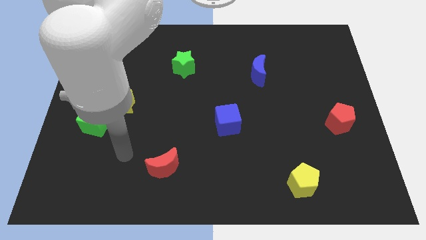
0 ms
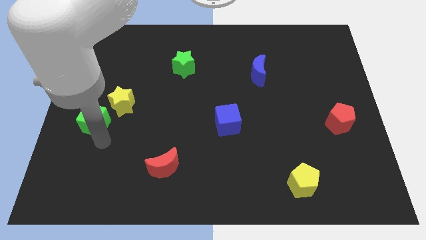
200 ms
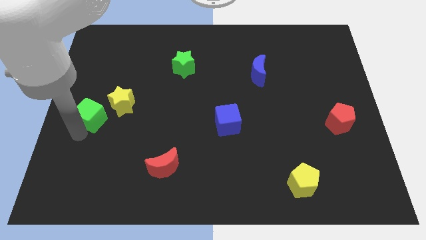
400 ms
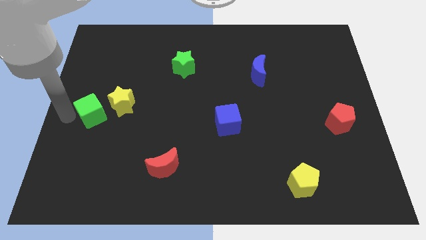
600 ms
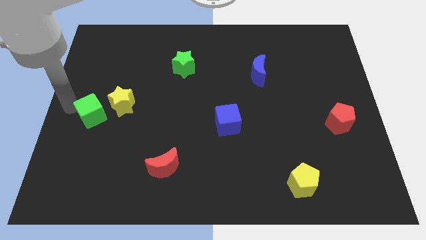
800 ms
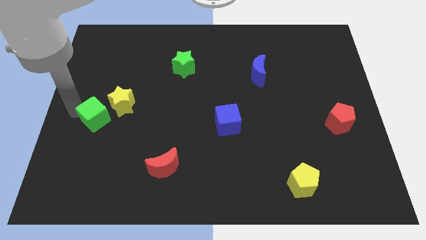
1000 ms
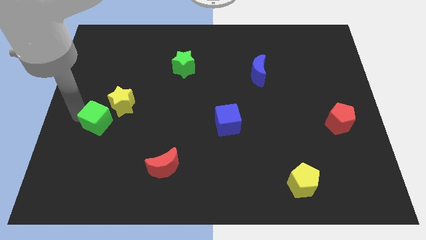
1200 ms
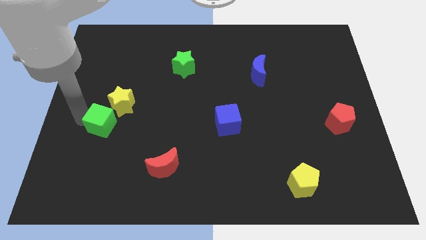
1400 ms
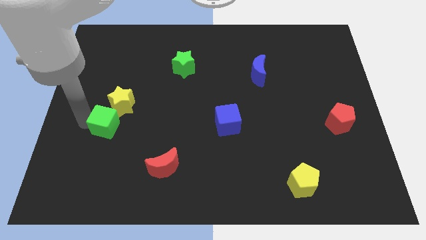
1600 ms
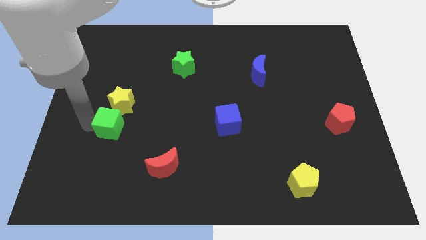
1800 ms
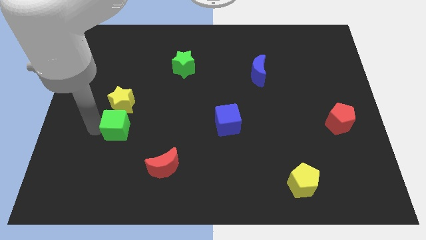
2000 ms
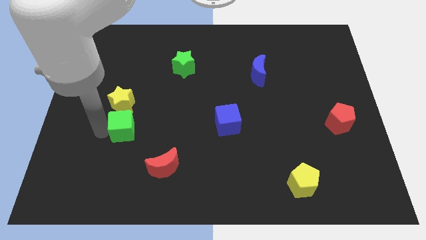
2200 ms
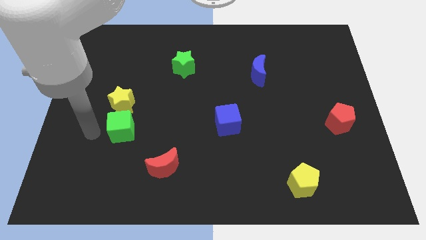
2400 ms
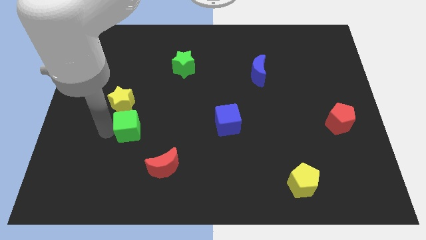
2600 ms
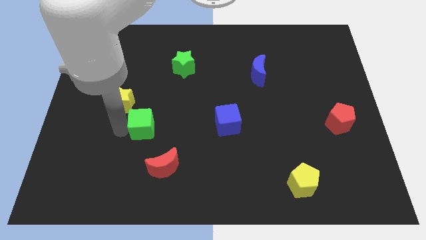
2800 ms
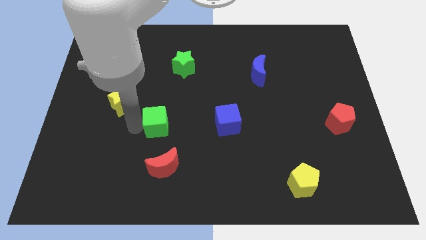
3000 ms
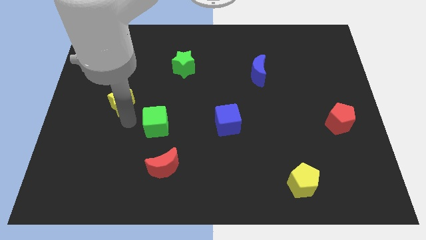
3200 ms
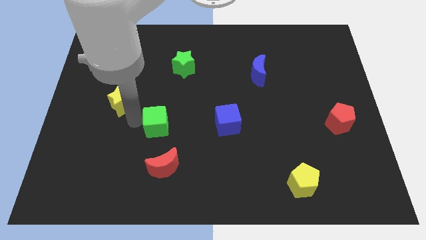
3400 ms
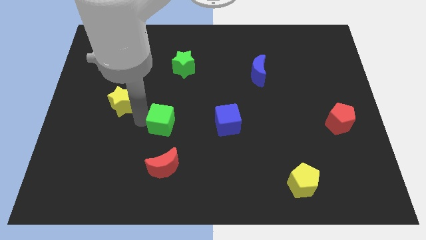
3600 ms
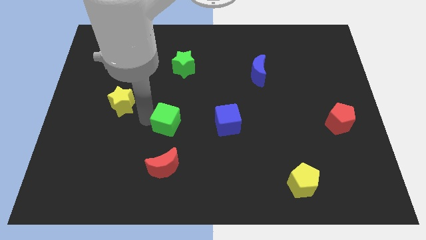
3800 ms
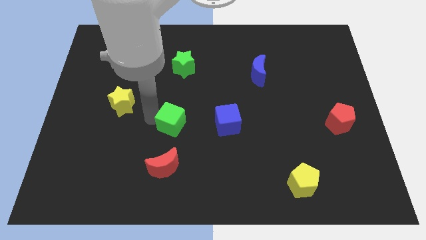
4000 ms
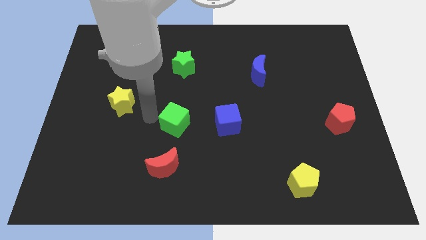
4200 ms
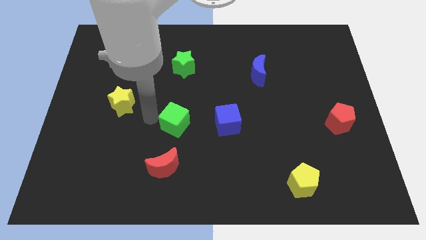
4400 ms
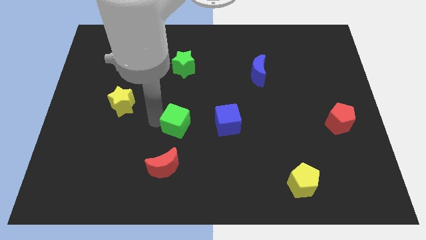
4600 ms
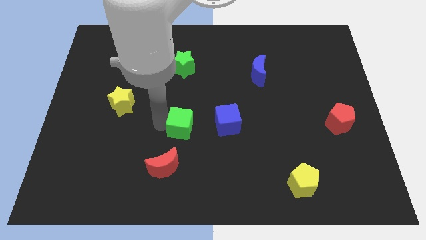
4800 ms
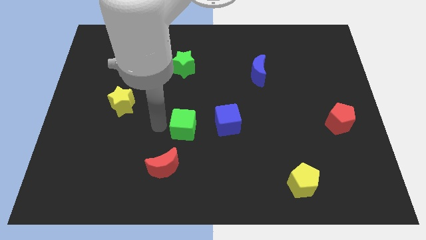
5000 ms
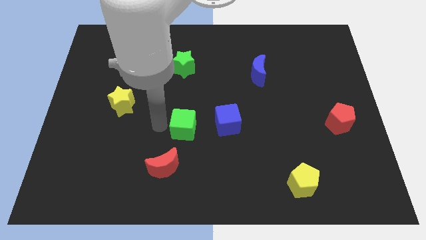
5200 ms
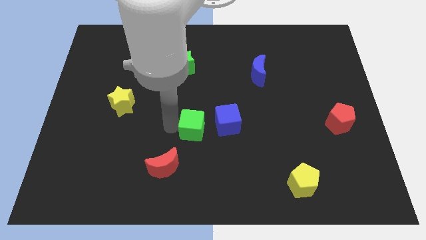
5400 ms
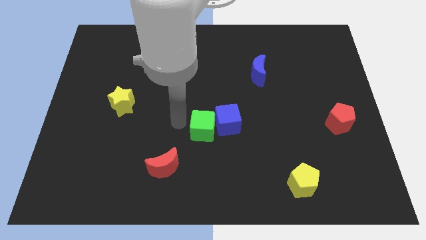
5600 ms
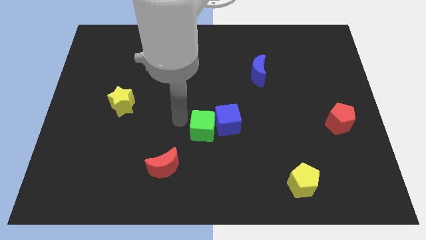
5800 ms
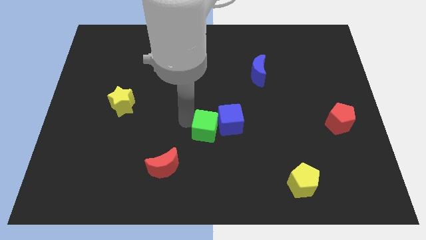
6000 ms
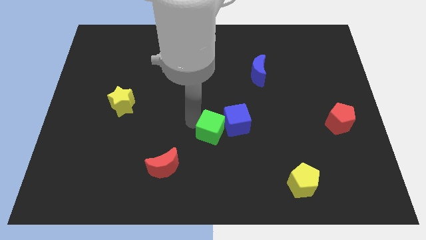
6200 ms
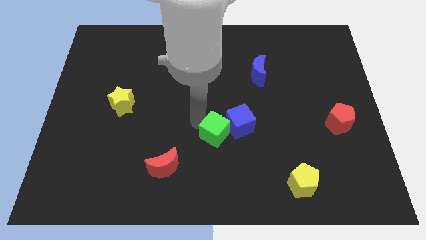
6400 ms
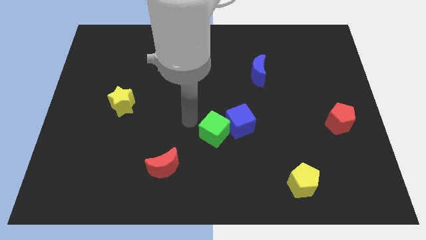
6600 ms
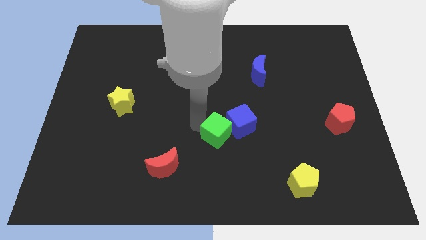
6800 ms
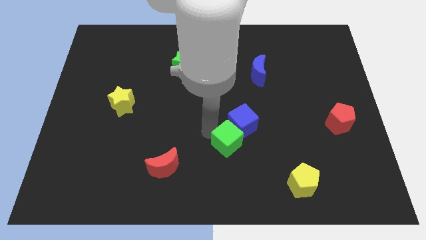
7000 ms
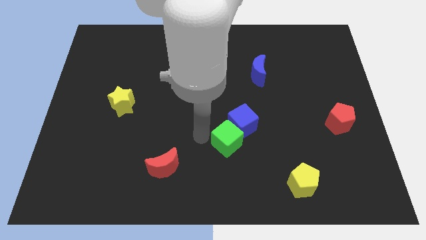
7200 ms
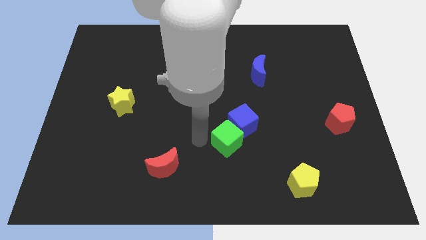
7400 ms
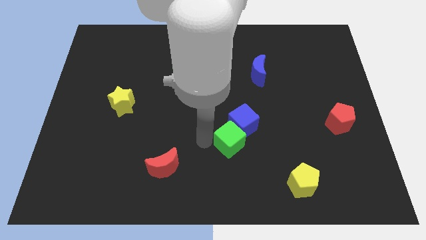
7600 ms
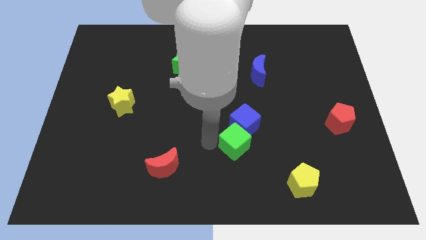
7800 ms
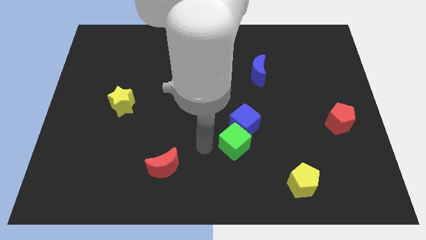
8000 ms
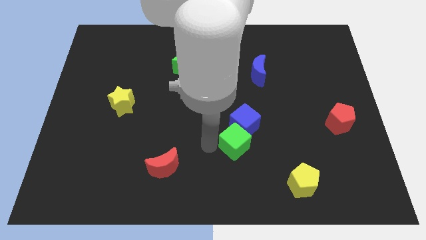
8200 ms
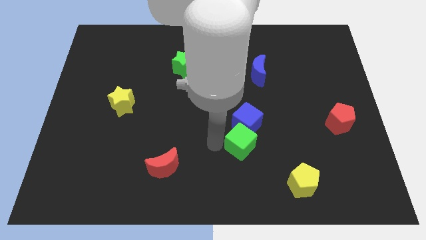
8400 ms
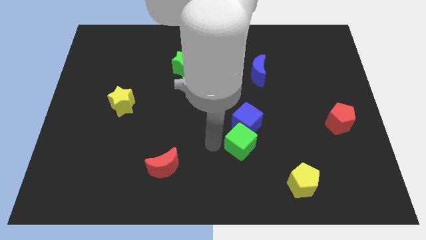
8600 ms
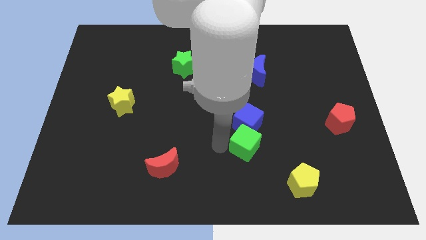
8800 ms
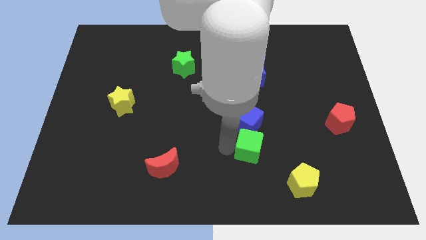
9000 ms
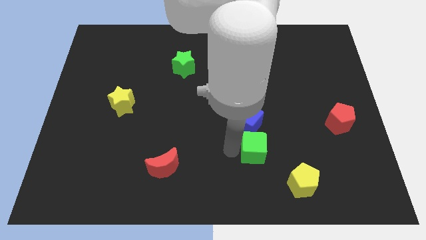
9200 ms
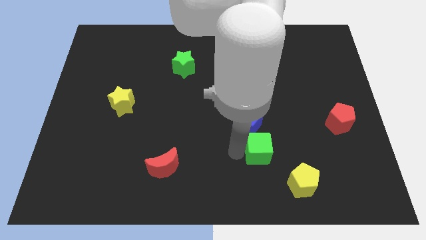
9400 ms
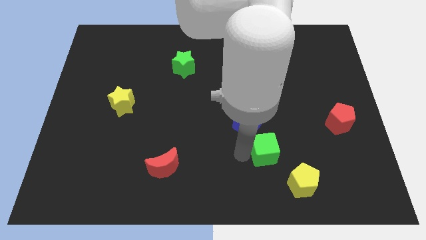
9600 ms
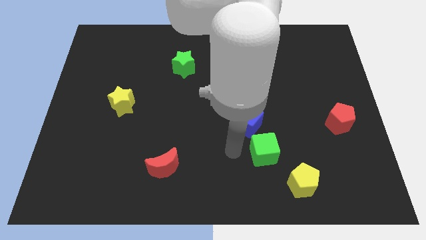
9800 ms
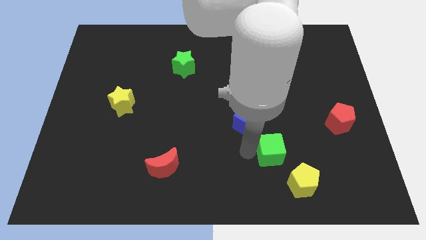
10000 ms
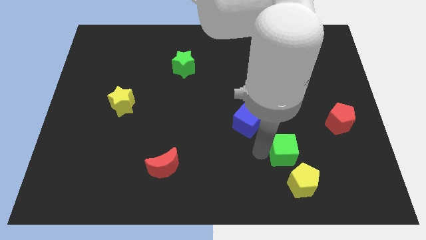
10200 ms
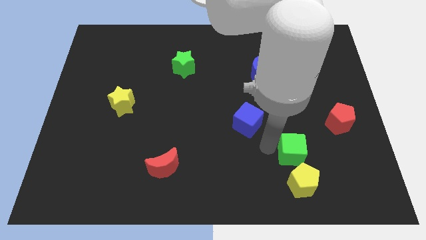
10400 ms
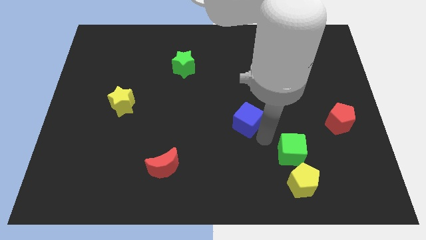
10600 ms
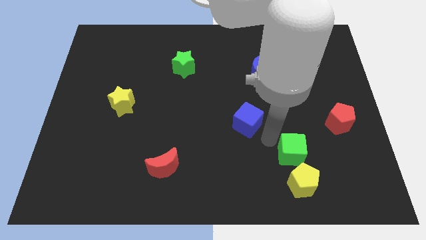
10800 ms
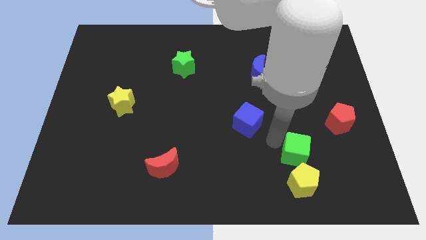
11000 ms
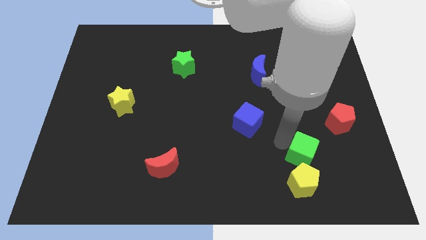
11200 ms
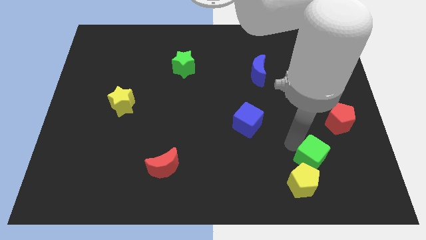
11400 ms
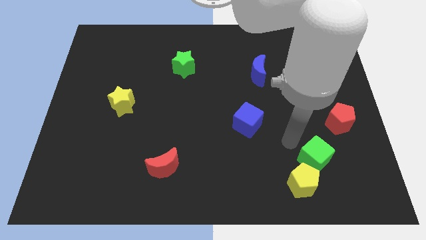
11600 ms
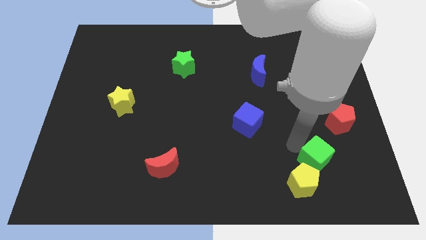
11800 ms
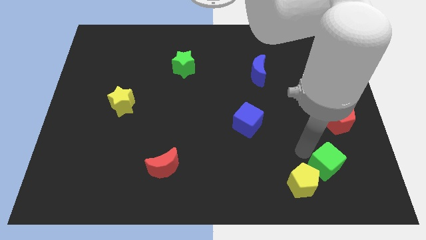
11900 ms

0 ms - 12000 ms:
put the green cube right of the yellow pentagon
